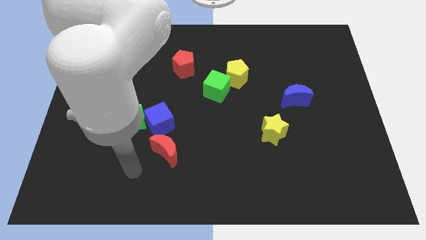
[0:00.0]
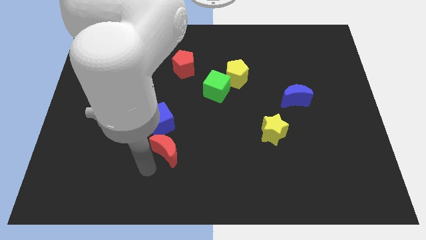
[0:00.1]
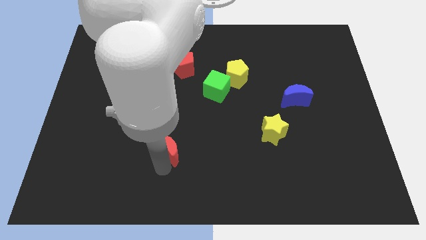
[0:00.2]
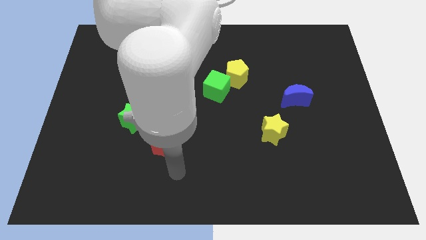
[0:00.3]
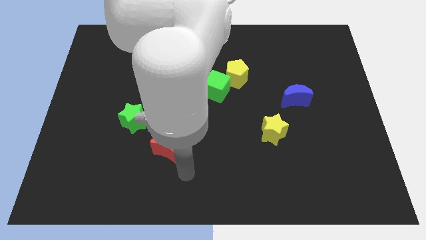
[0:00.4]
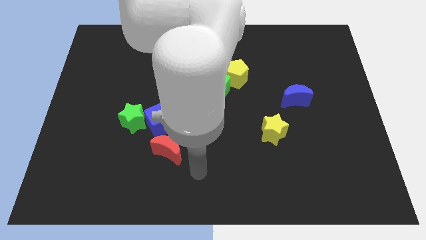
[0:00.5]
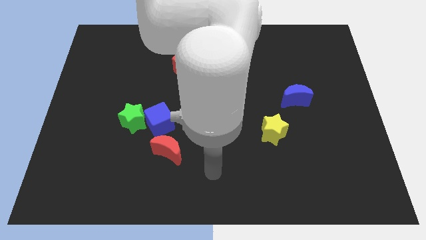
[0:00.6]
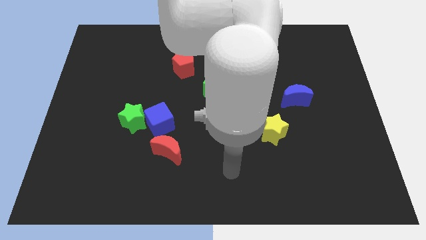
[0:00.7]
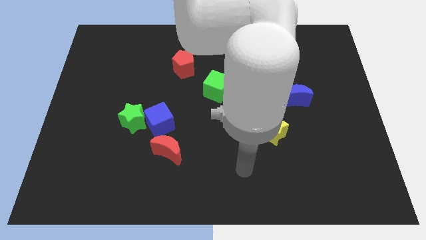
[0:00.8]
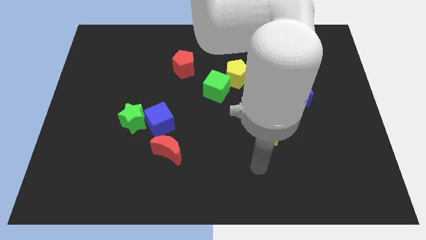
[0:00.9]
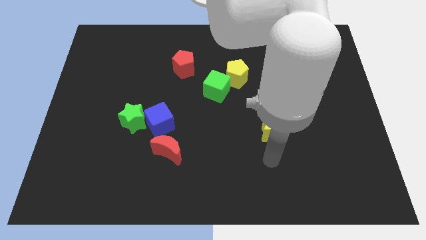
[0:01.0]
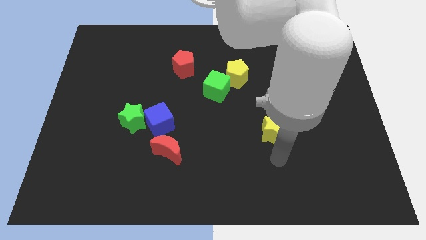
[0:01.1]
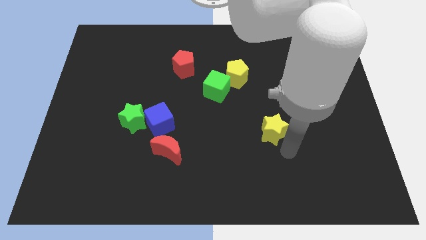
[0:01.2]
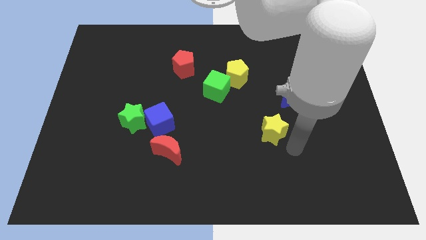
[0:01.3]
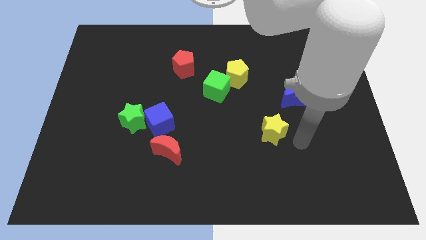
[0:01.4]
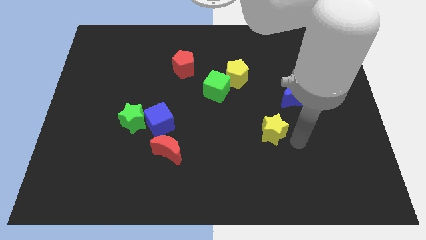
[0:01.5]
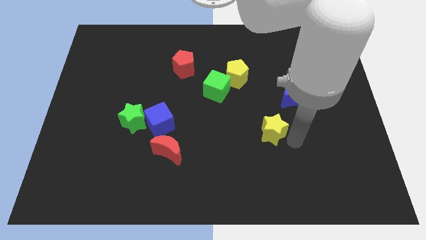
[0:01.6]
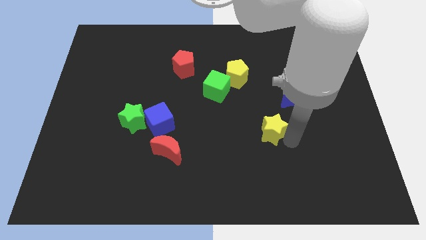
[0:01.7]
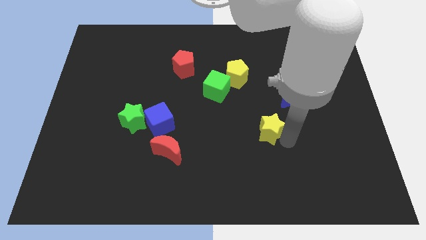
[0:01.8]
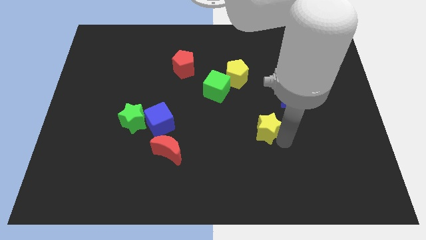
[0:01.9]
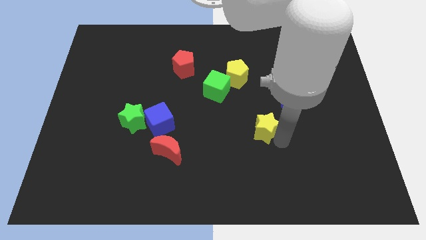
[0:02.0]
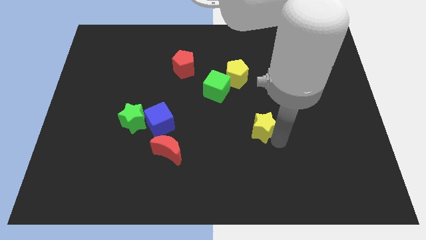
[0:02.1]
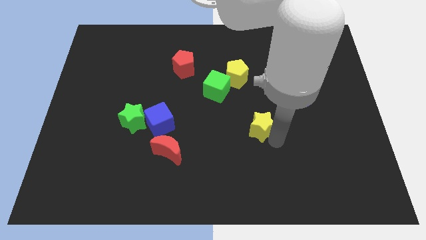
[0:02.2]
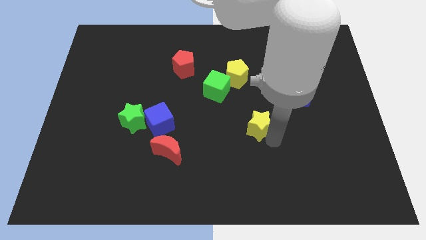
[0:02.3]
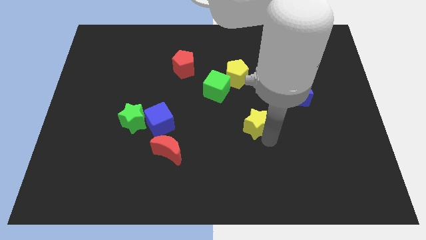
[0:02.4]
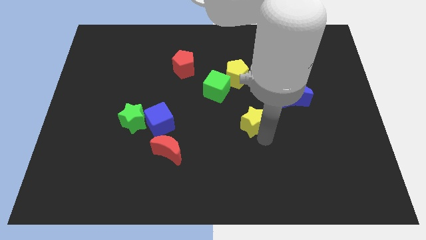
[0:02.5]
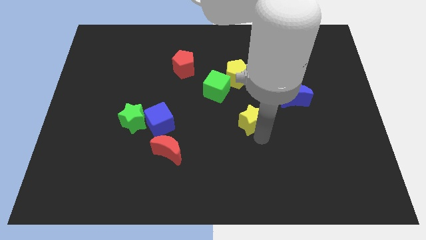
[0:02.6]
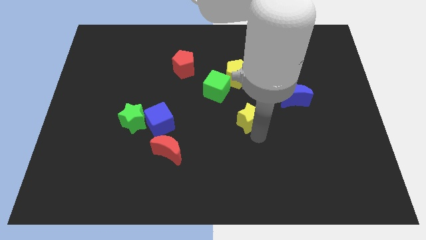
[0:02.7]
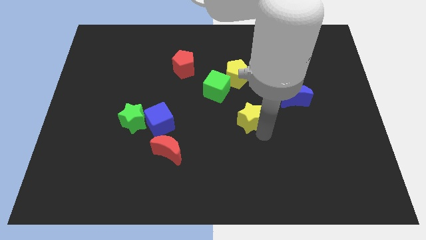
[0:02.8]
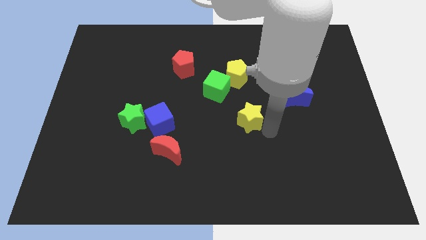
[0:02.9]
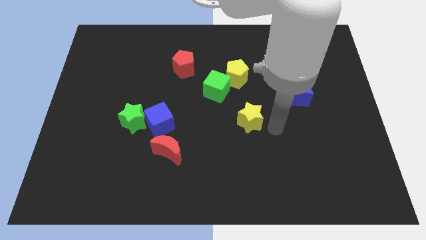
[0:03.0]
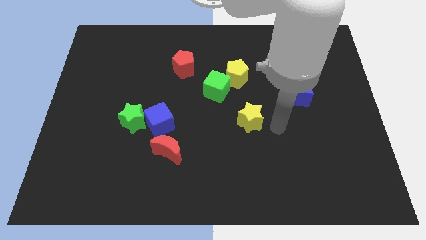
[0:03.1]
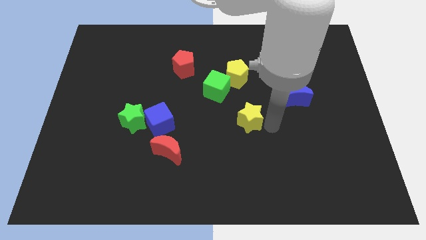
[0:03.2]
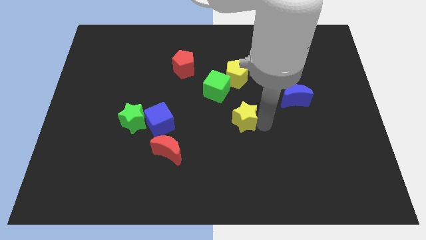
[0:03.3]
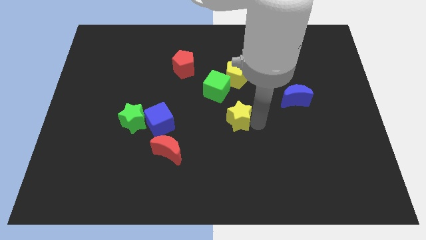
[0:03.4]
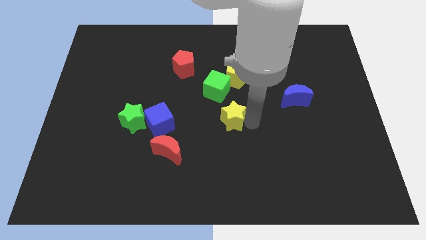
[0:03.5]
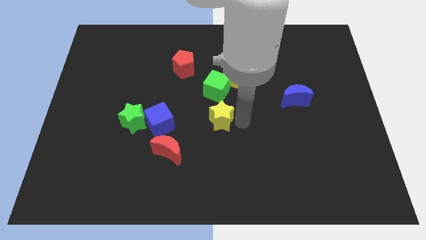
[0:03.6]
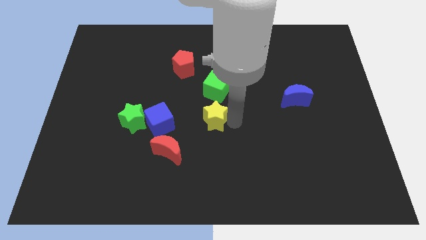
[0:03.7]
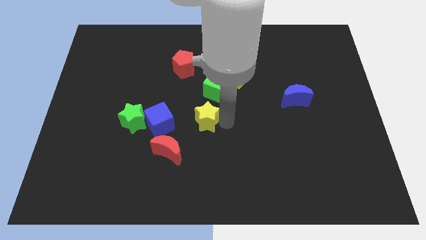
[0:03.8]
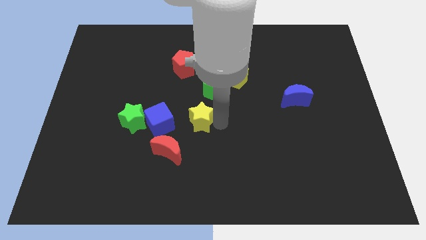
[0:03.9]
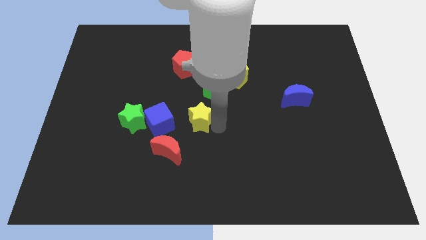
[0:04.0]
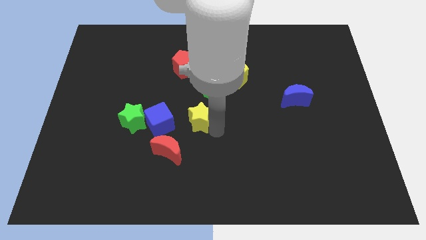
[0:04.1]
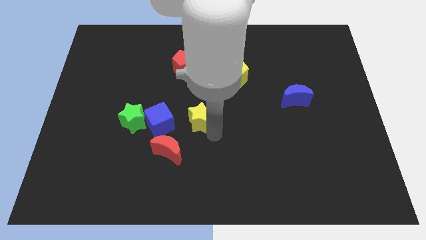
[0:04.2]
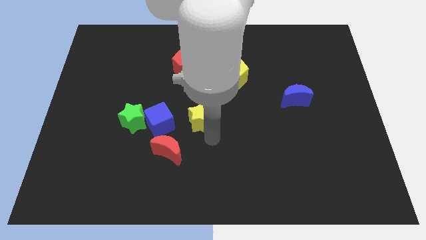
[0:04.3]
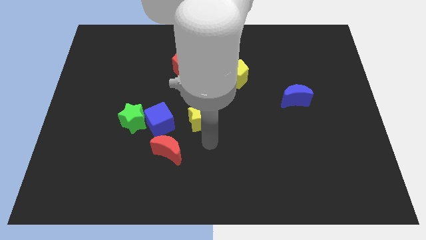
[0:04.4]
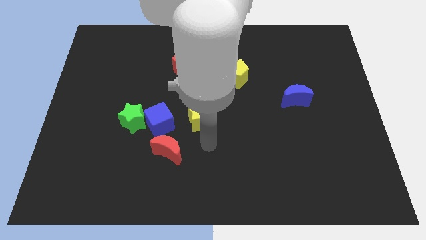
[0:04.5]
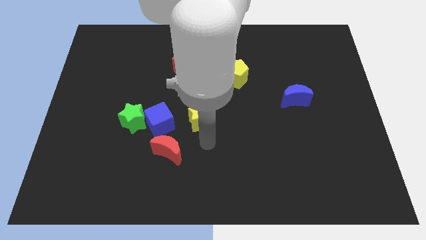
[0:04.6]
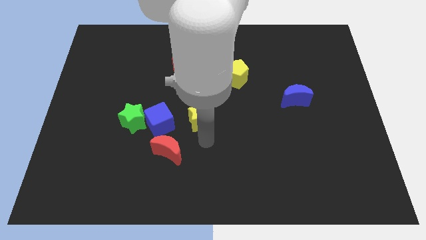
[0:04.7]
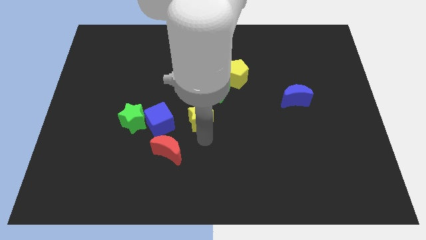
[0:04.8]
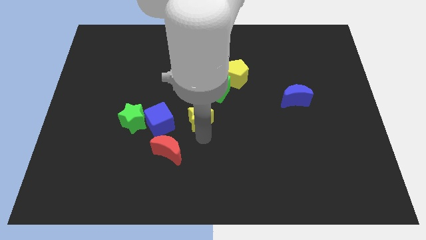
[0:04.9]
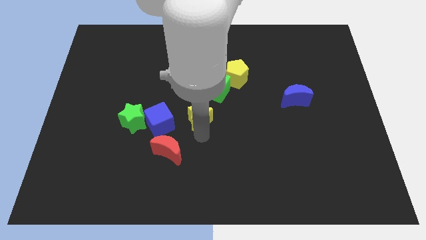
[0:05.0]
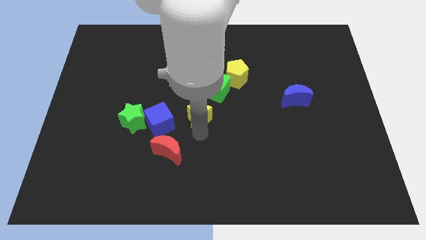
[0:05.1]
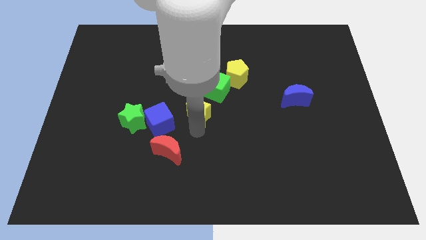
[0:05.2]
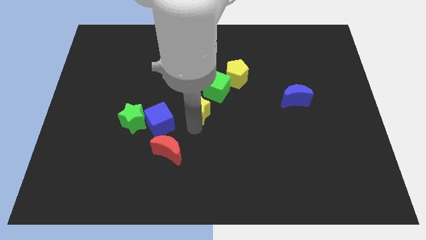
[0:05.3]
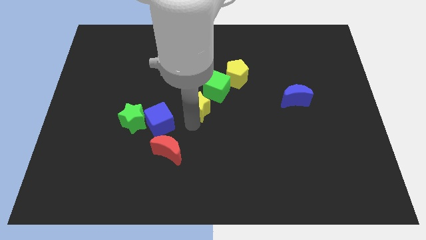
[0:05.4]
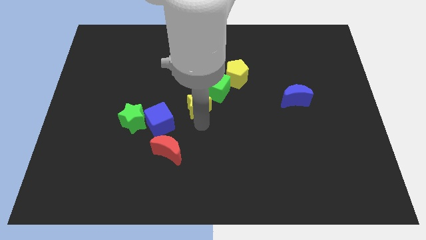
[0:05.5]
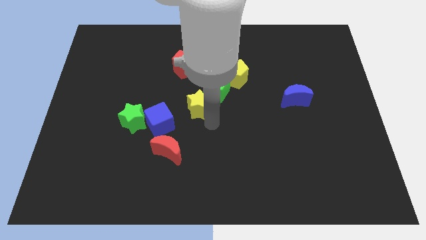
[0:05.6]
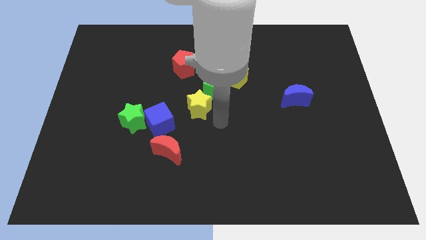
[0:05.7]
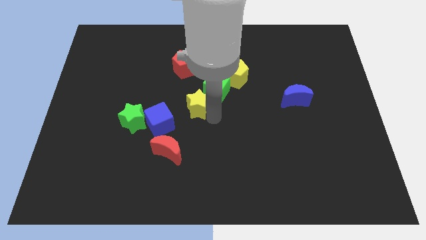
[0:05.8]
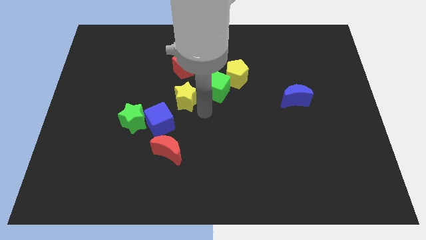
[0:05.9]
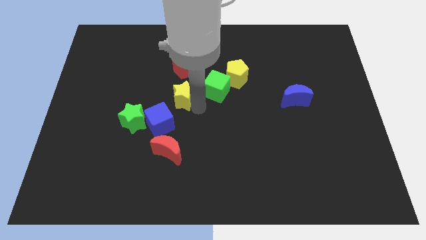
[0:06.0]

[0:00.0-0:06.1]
slide the yellow star to the top of the blue cube

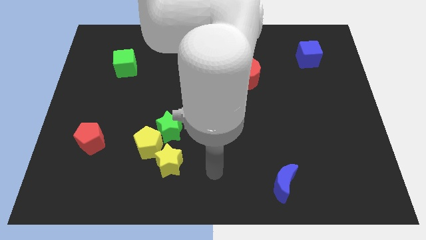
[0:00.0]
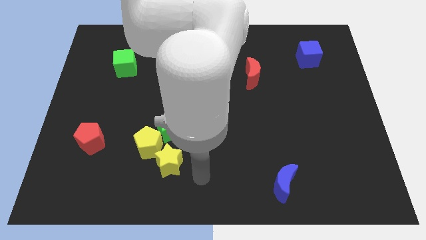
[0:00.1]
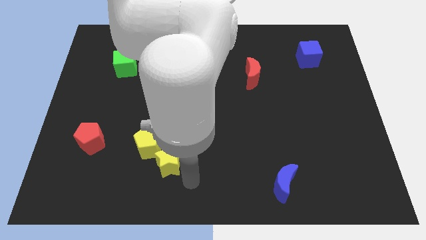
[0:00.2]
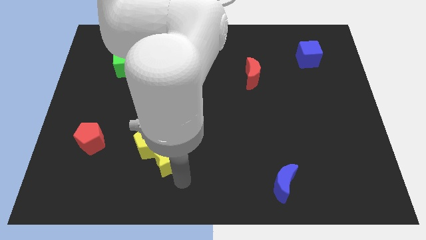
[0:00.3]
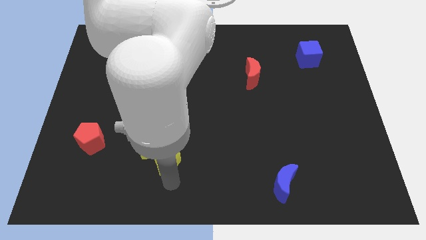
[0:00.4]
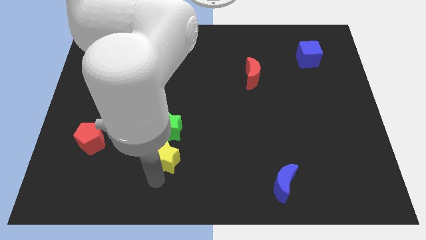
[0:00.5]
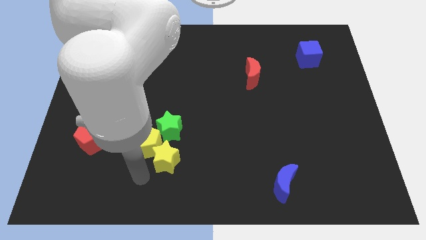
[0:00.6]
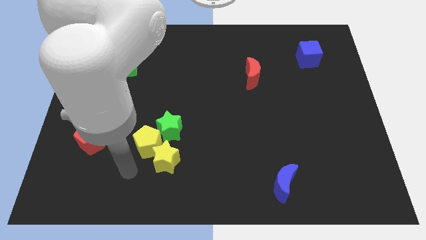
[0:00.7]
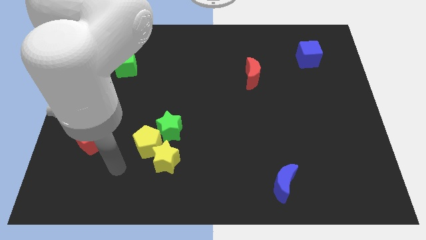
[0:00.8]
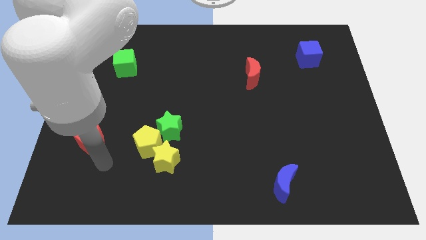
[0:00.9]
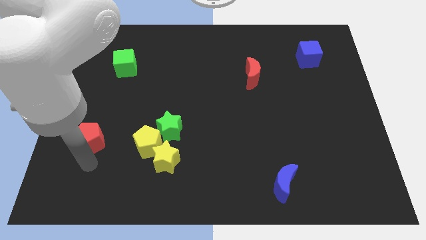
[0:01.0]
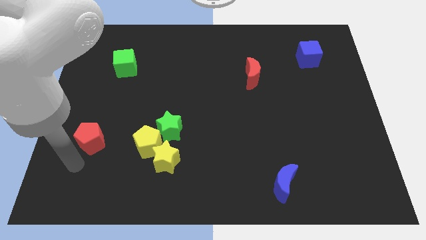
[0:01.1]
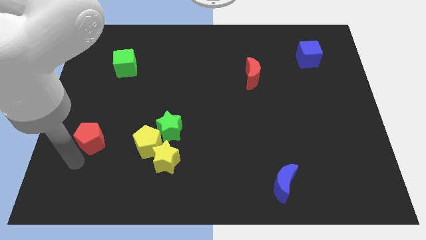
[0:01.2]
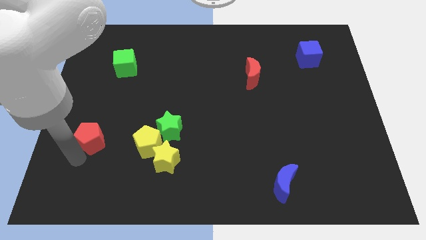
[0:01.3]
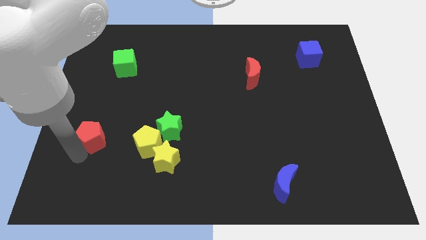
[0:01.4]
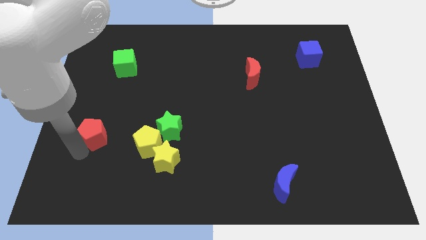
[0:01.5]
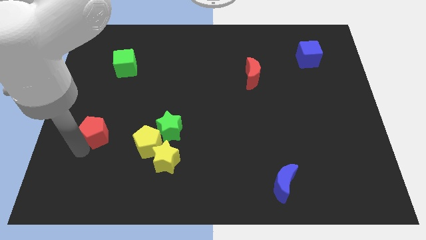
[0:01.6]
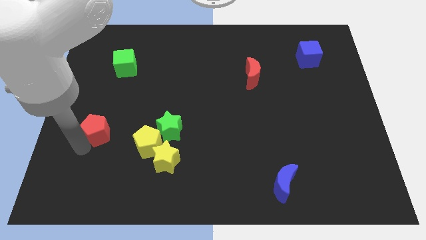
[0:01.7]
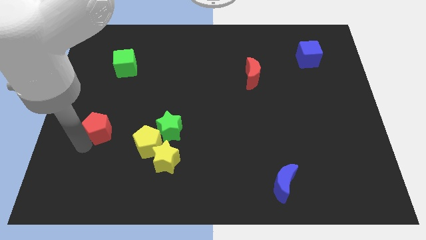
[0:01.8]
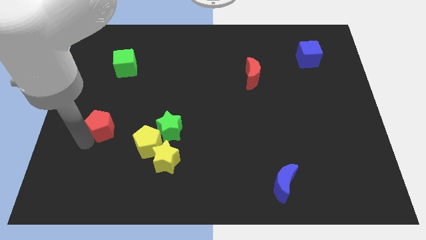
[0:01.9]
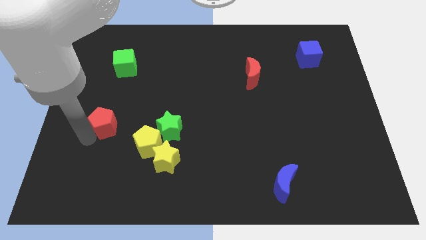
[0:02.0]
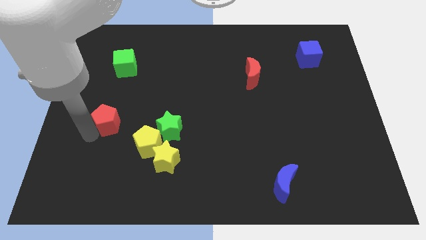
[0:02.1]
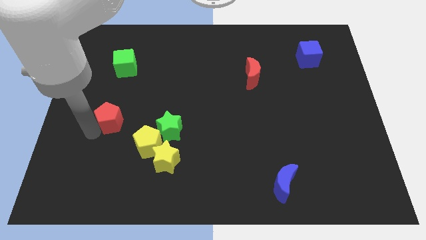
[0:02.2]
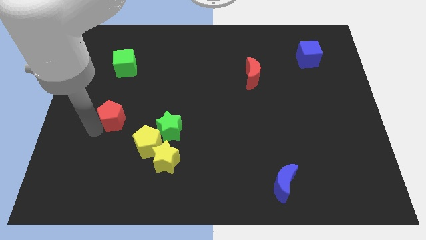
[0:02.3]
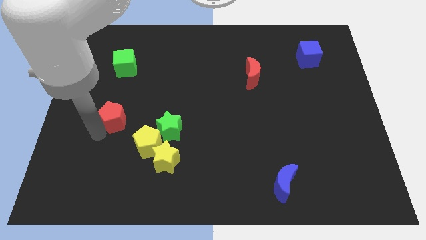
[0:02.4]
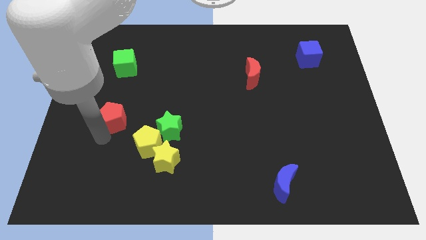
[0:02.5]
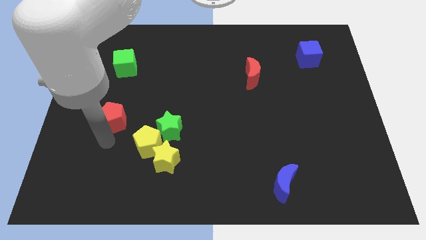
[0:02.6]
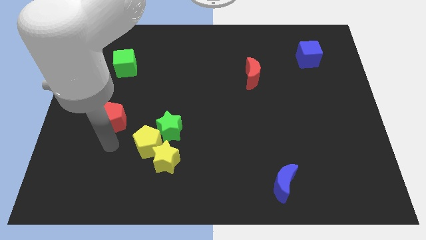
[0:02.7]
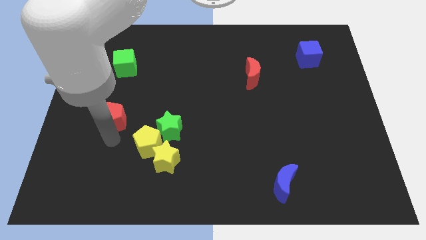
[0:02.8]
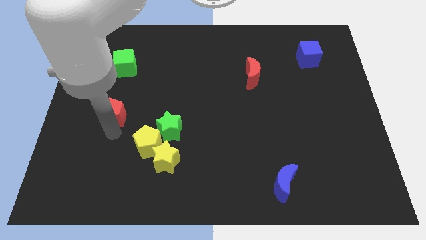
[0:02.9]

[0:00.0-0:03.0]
move the red pentagon to the bottom of the green cube
